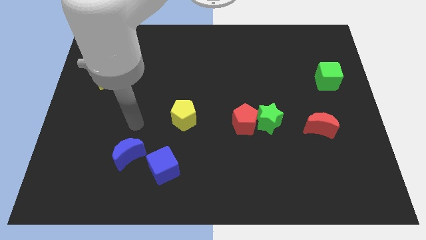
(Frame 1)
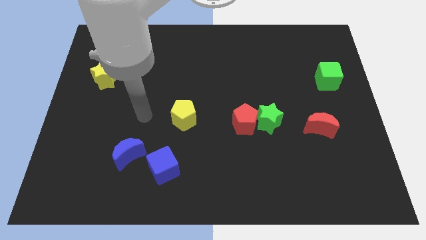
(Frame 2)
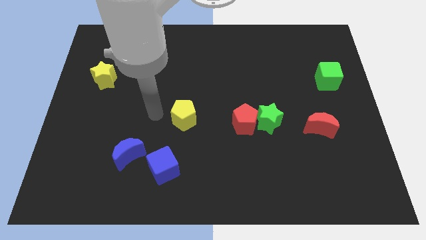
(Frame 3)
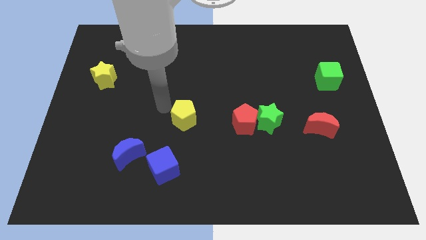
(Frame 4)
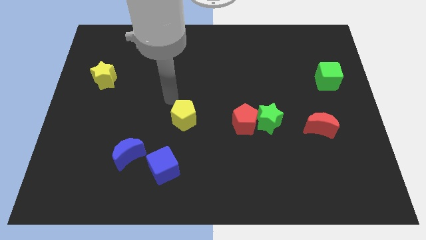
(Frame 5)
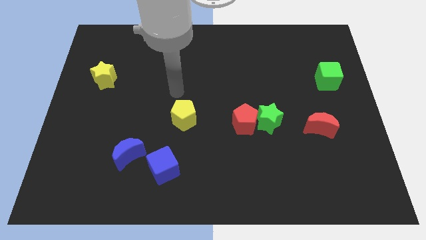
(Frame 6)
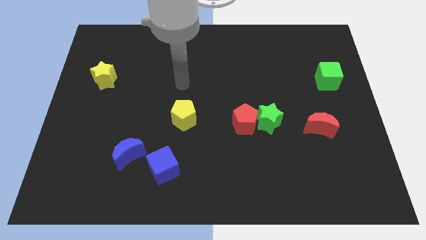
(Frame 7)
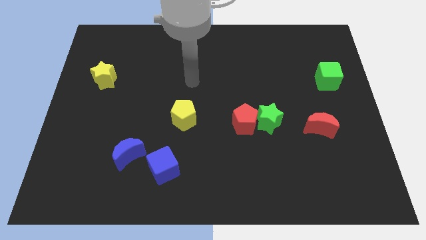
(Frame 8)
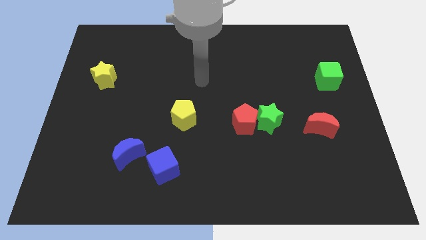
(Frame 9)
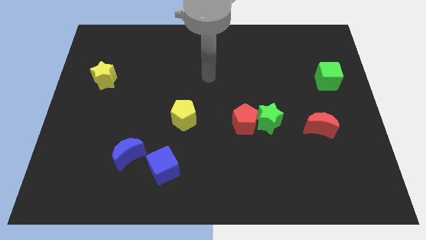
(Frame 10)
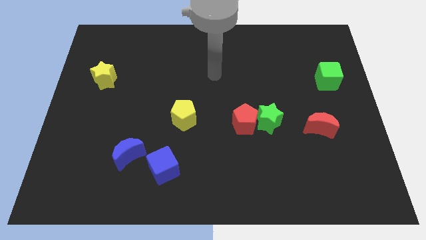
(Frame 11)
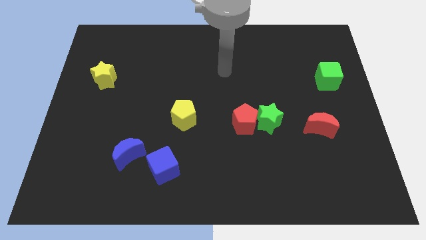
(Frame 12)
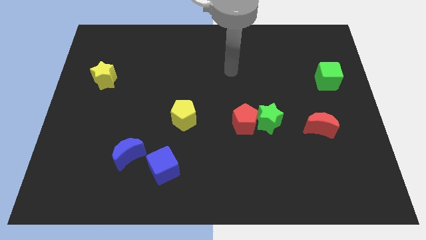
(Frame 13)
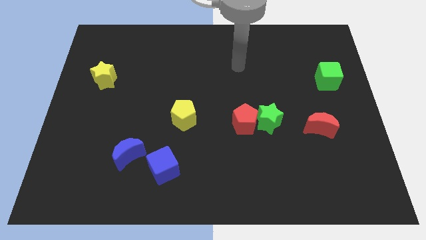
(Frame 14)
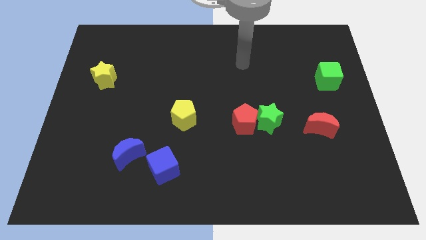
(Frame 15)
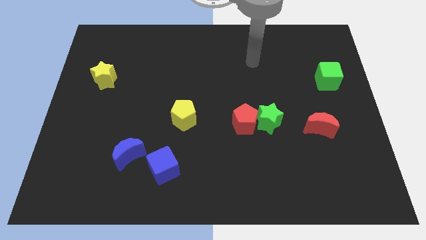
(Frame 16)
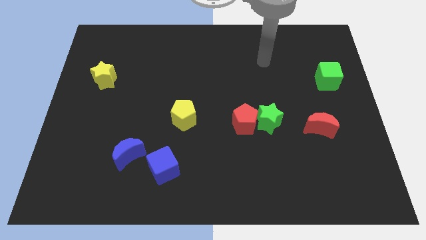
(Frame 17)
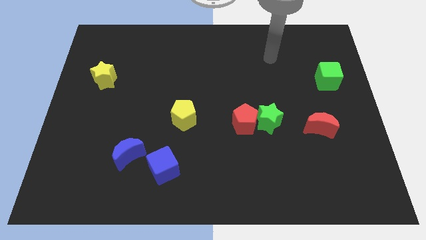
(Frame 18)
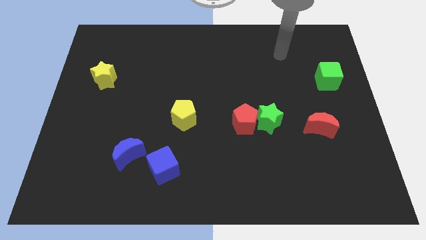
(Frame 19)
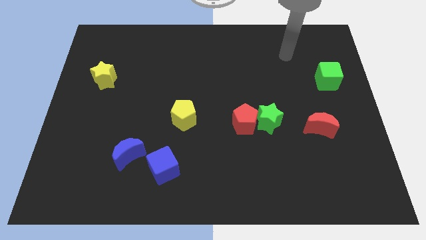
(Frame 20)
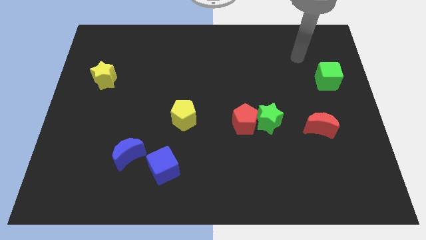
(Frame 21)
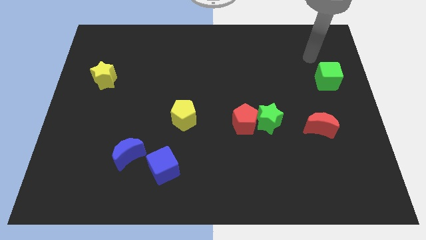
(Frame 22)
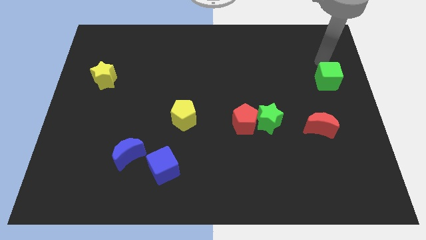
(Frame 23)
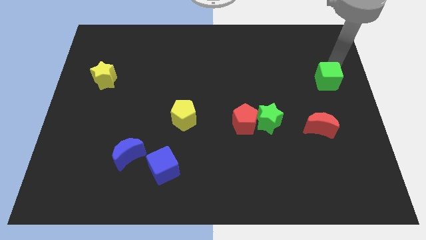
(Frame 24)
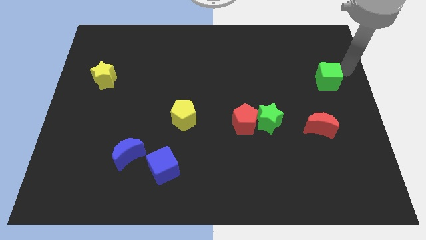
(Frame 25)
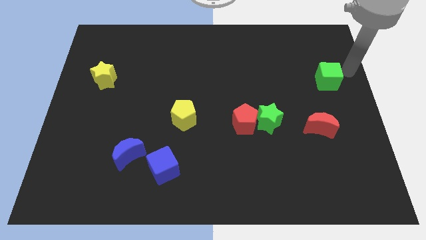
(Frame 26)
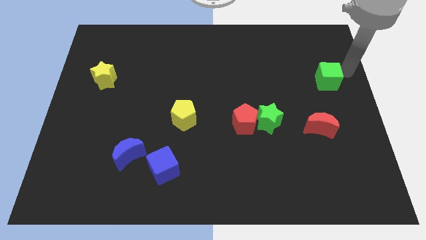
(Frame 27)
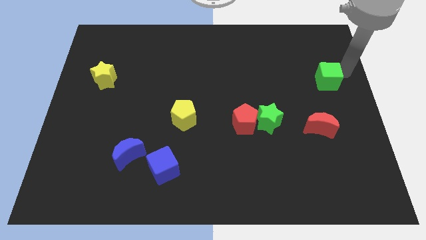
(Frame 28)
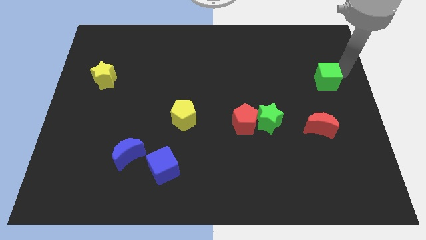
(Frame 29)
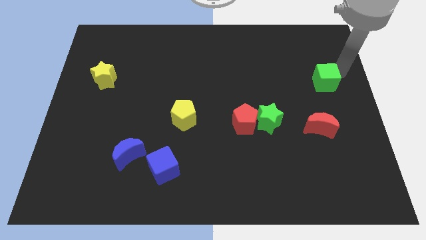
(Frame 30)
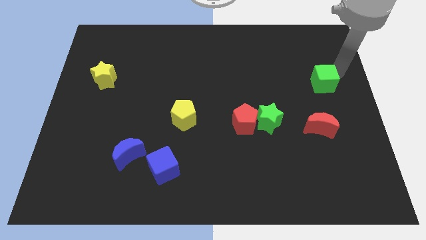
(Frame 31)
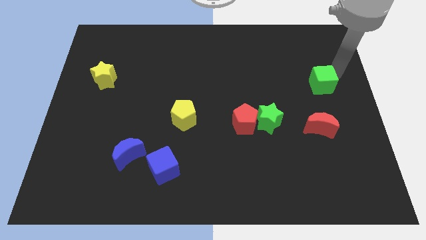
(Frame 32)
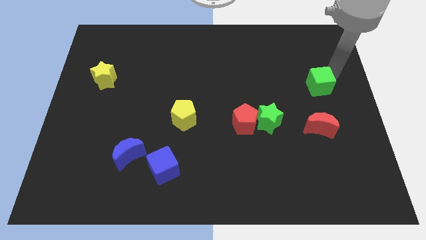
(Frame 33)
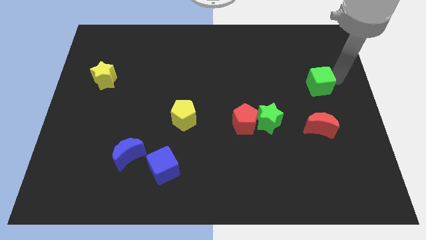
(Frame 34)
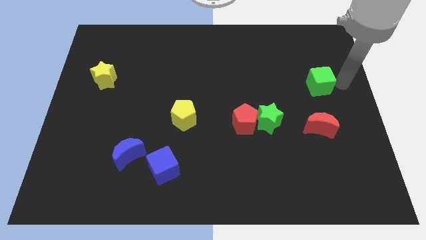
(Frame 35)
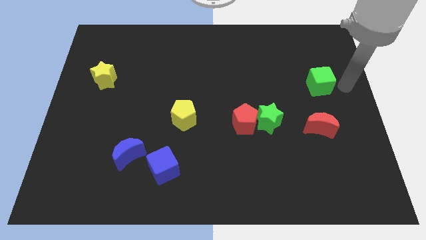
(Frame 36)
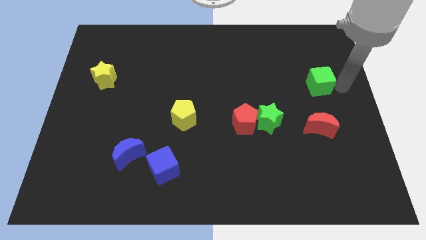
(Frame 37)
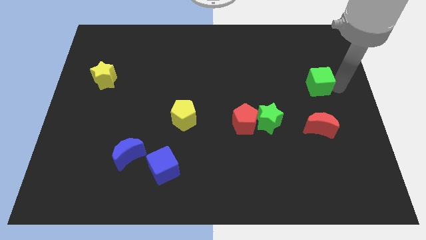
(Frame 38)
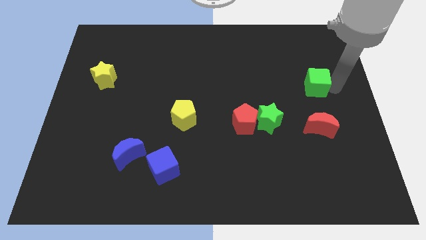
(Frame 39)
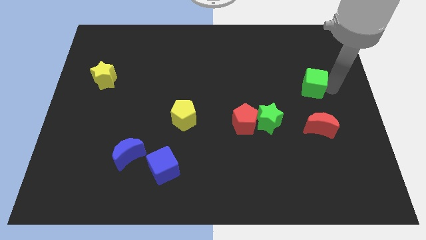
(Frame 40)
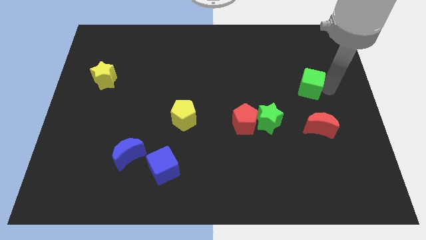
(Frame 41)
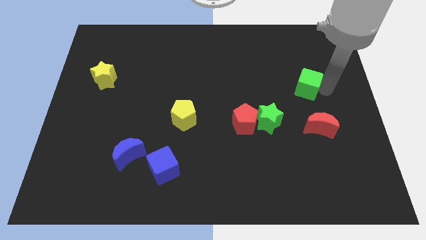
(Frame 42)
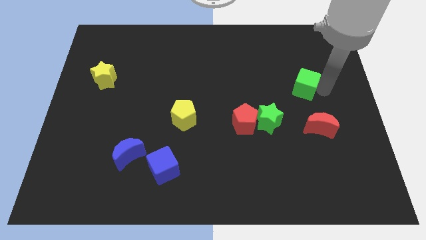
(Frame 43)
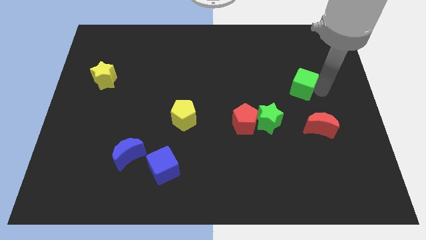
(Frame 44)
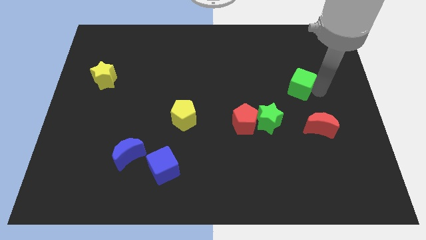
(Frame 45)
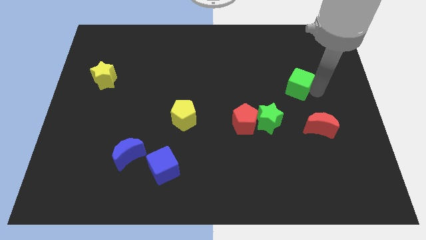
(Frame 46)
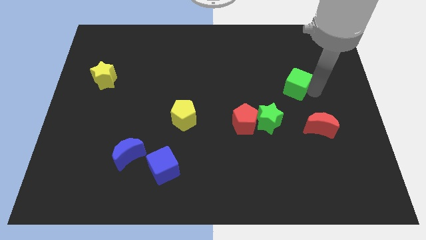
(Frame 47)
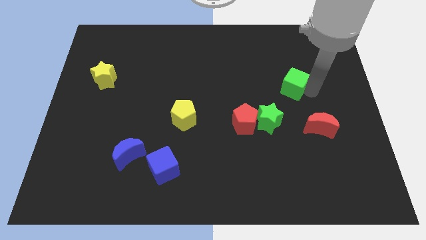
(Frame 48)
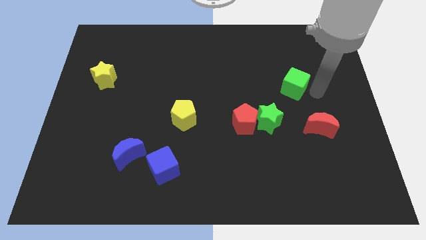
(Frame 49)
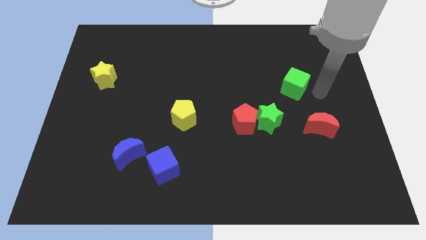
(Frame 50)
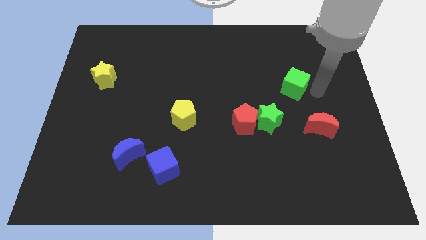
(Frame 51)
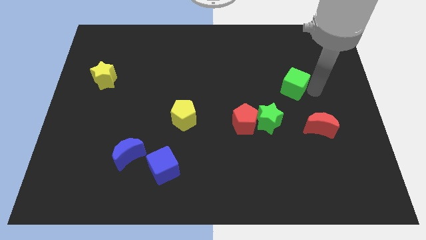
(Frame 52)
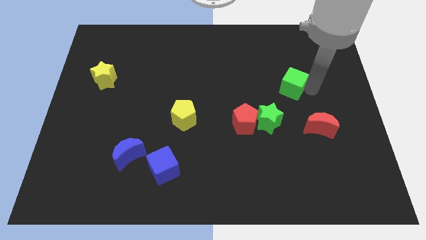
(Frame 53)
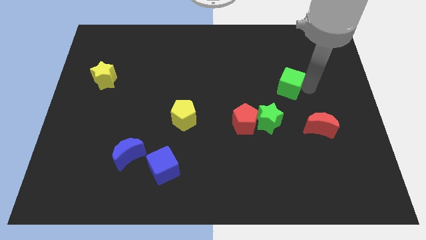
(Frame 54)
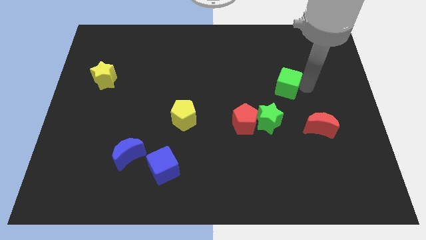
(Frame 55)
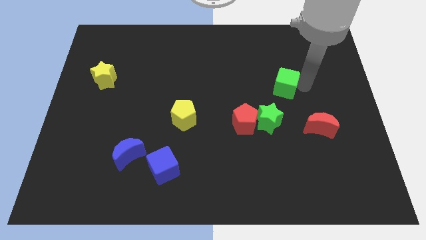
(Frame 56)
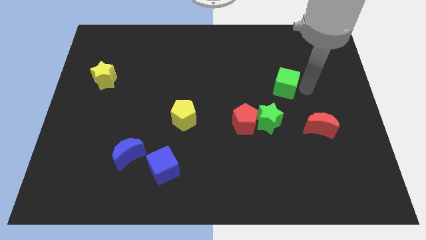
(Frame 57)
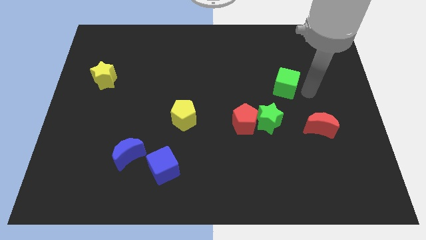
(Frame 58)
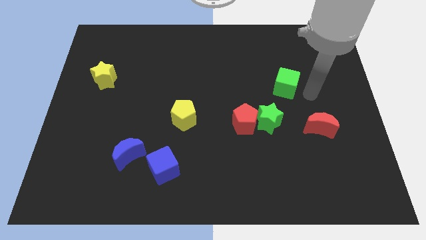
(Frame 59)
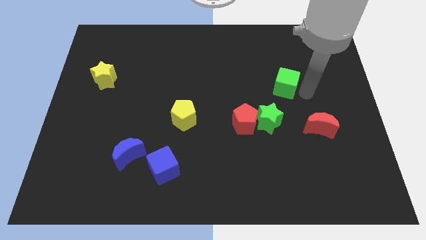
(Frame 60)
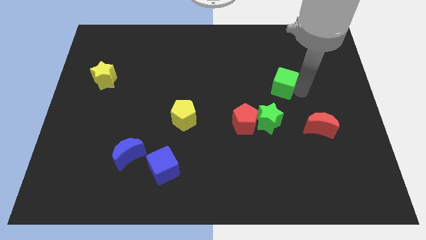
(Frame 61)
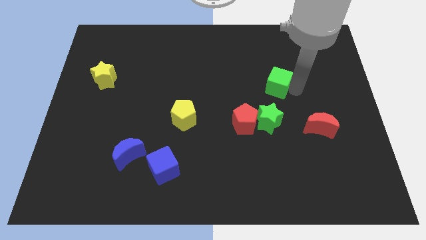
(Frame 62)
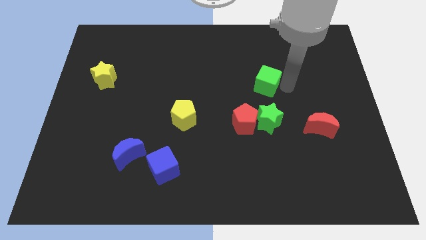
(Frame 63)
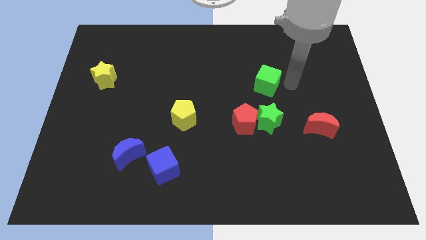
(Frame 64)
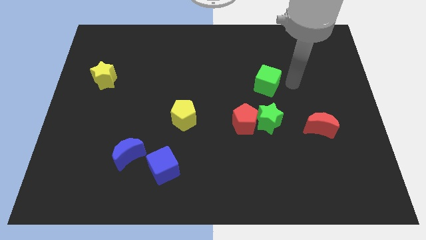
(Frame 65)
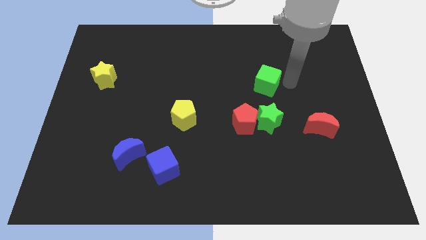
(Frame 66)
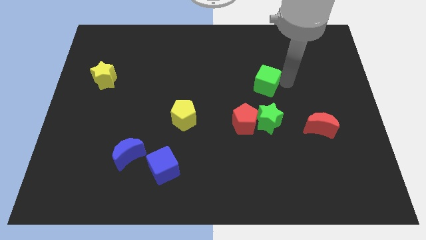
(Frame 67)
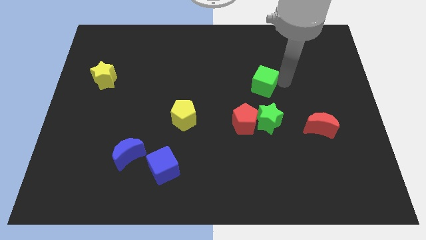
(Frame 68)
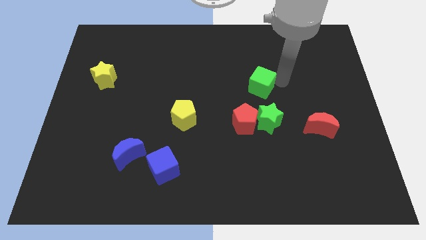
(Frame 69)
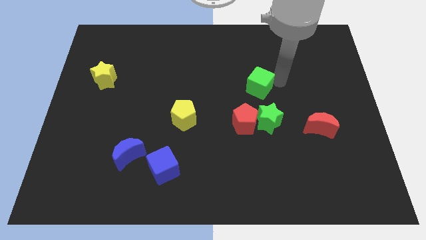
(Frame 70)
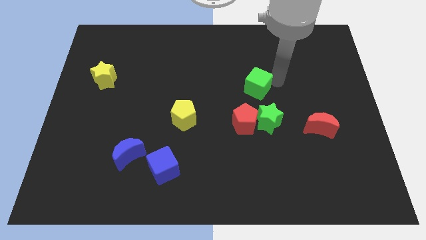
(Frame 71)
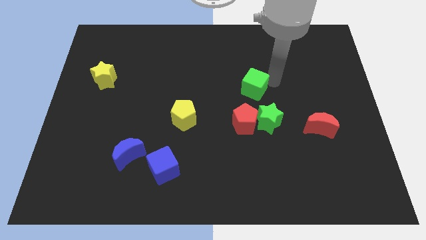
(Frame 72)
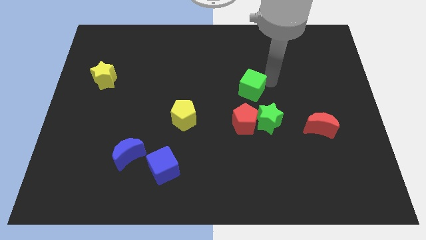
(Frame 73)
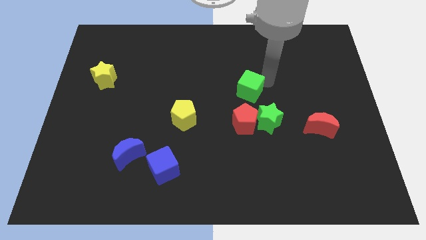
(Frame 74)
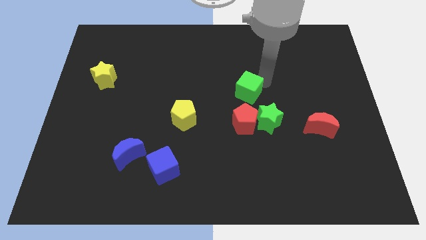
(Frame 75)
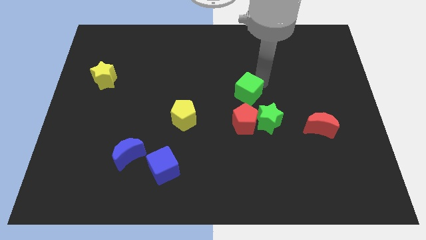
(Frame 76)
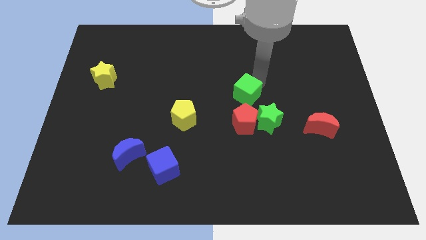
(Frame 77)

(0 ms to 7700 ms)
push the green cube left
